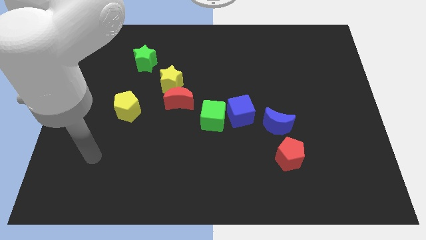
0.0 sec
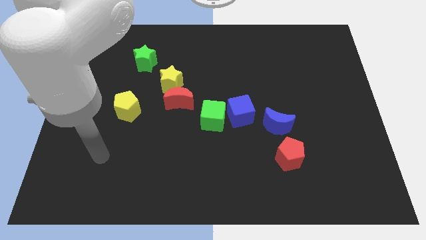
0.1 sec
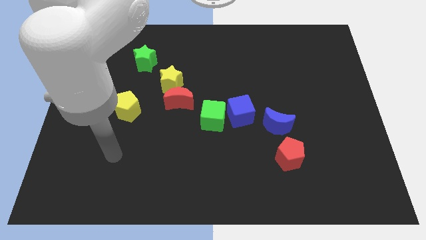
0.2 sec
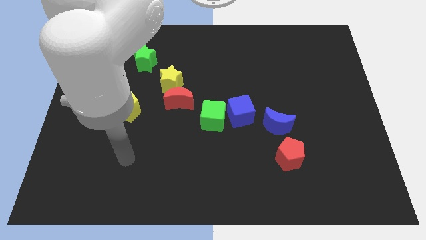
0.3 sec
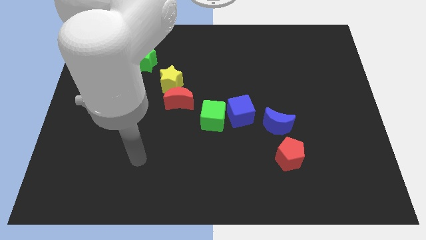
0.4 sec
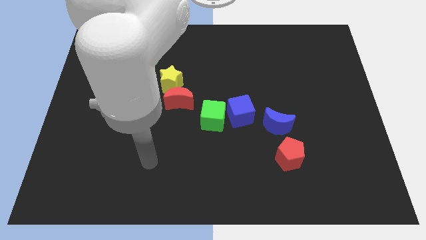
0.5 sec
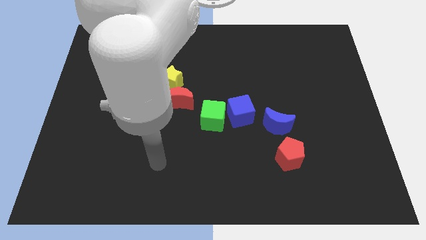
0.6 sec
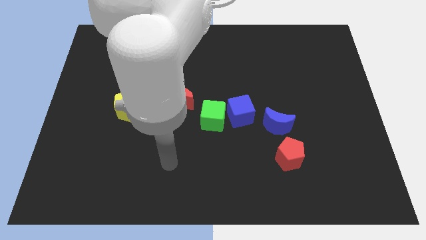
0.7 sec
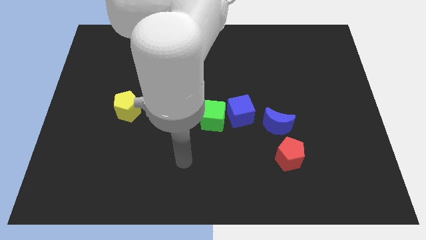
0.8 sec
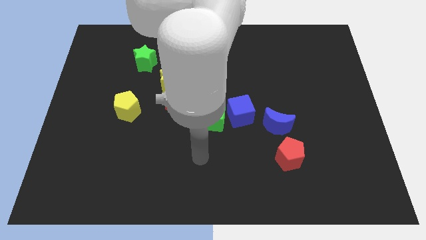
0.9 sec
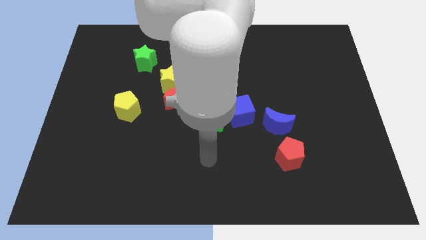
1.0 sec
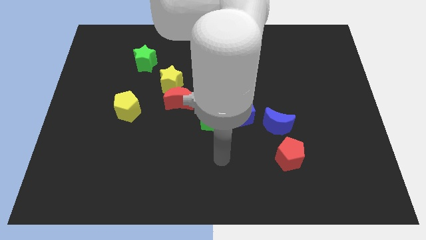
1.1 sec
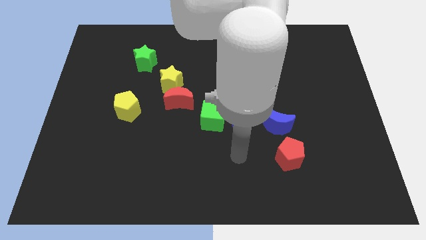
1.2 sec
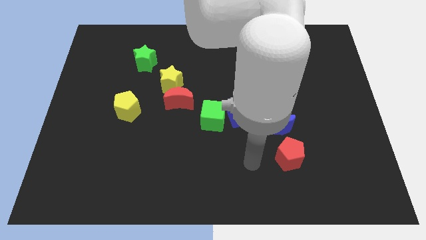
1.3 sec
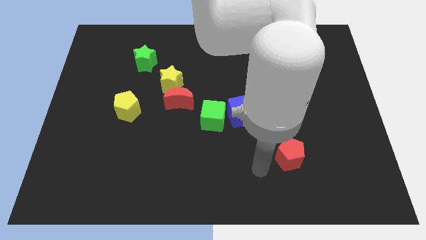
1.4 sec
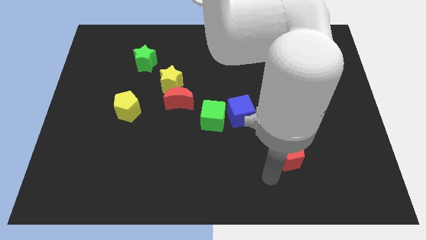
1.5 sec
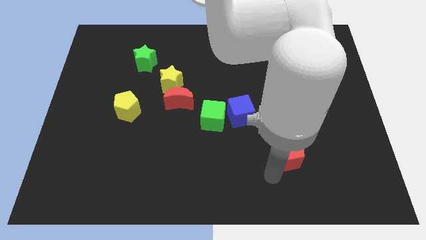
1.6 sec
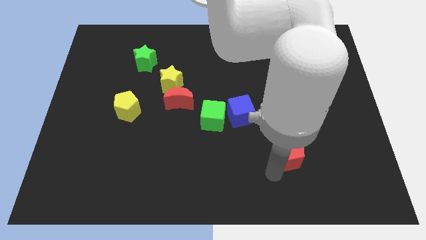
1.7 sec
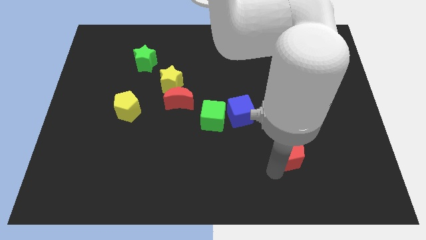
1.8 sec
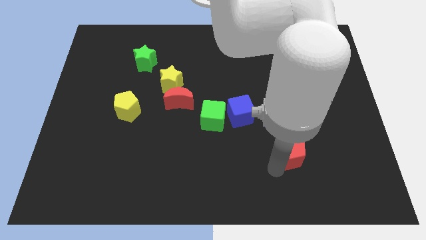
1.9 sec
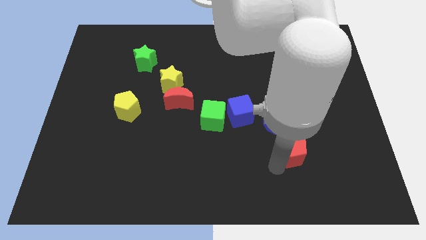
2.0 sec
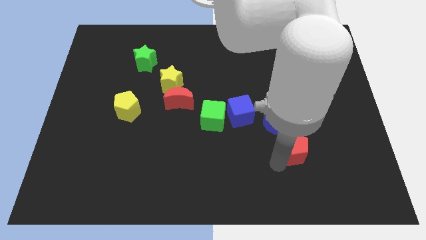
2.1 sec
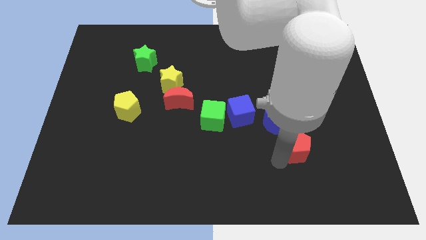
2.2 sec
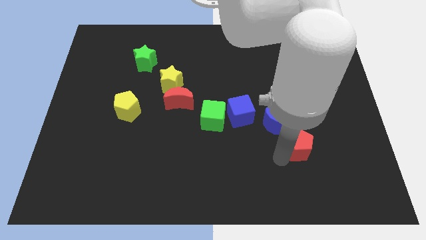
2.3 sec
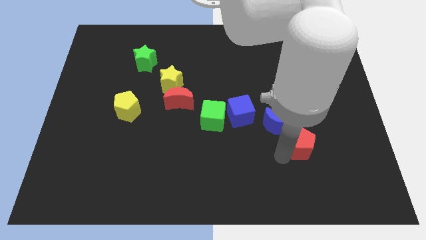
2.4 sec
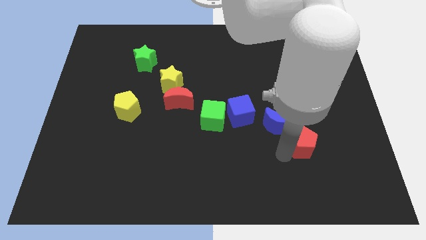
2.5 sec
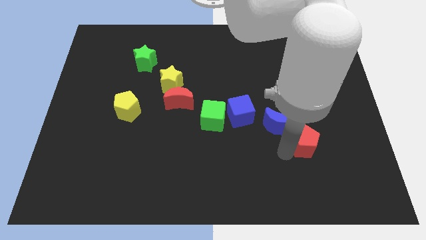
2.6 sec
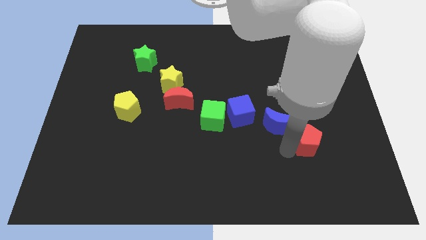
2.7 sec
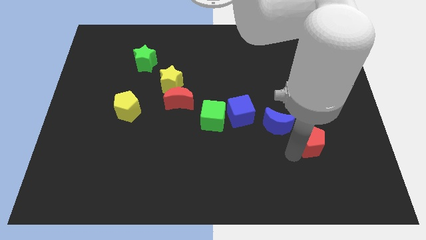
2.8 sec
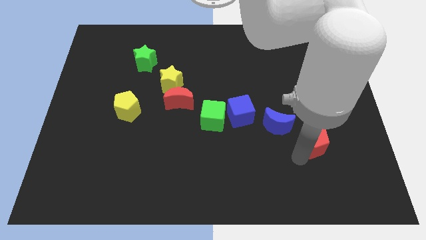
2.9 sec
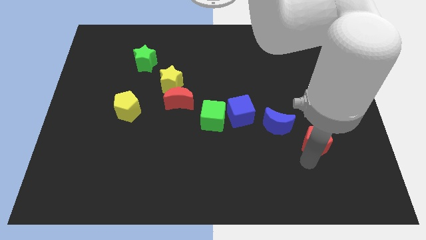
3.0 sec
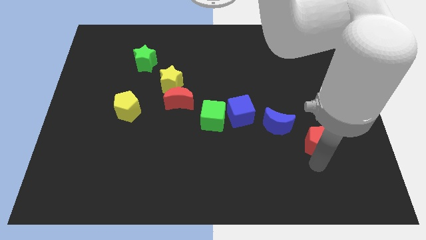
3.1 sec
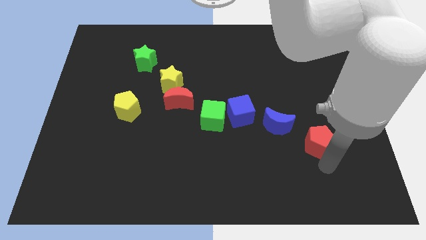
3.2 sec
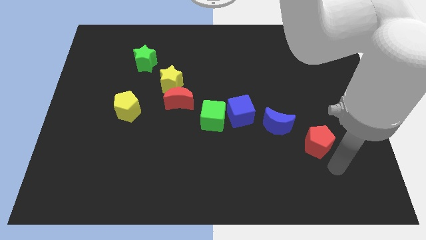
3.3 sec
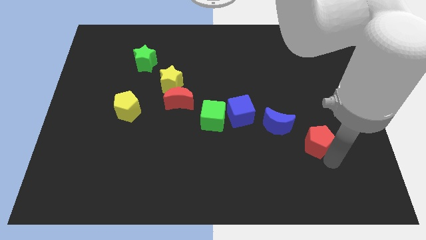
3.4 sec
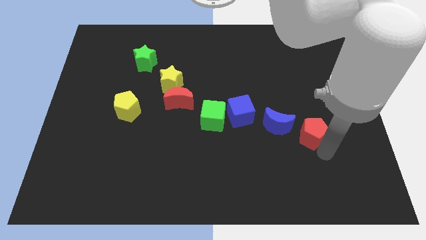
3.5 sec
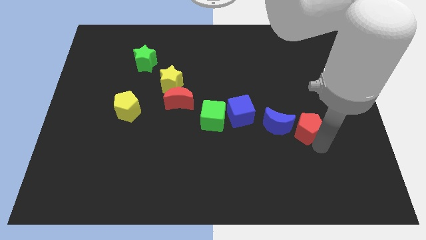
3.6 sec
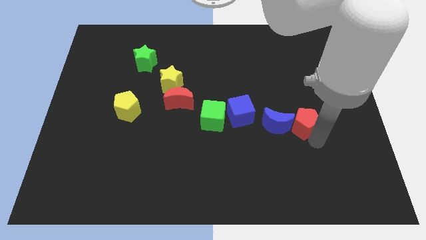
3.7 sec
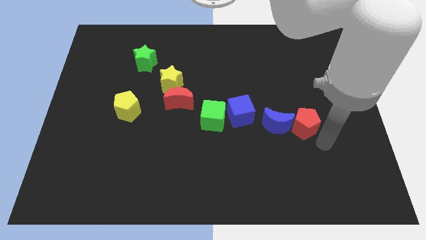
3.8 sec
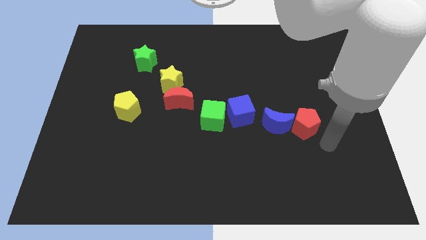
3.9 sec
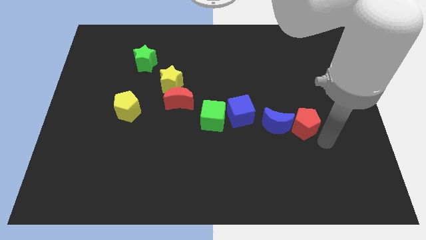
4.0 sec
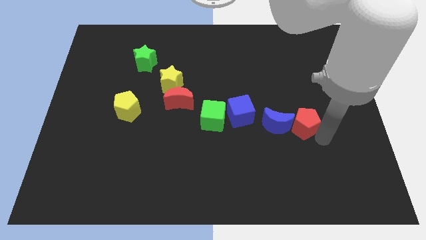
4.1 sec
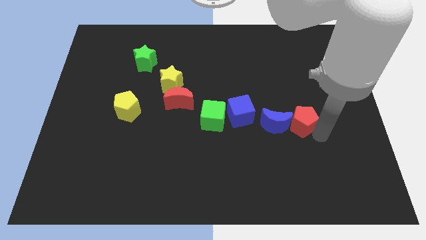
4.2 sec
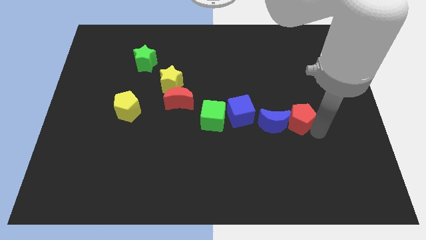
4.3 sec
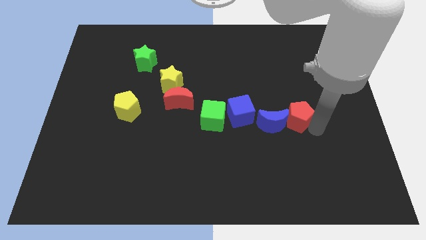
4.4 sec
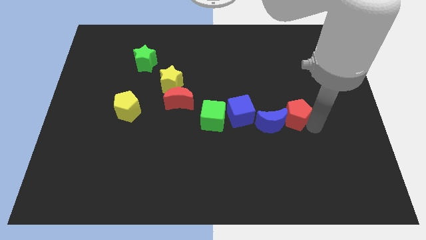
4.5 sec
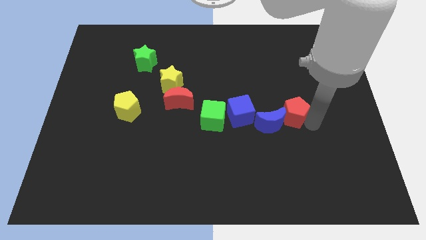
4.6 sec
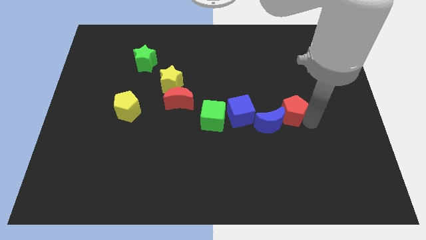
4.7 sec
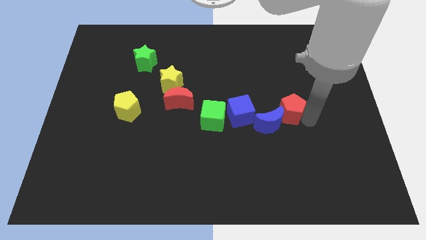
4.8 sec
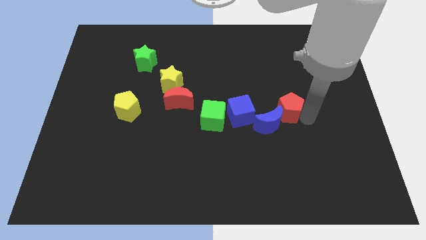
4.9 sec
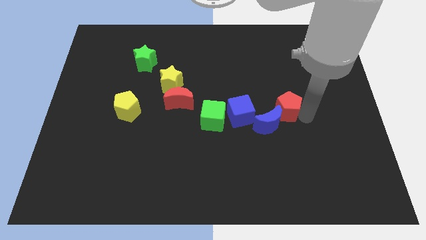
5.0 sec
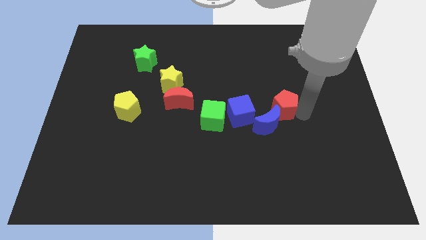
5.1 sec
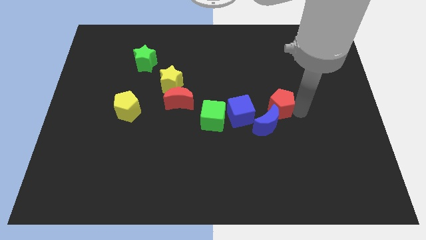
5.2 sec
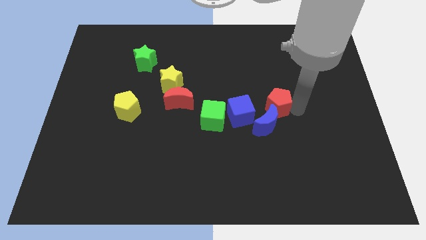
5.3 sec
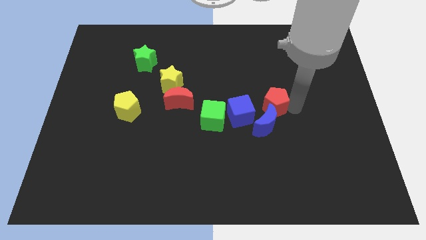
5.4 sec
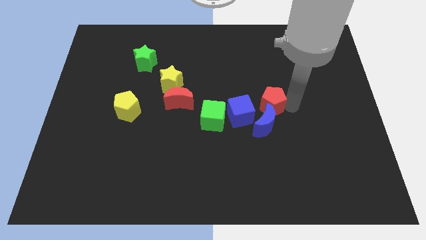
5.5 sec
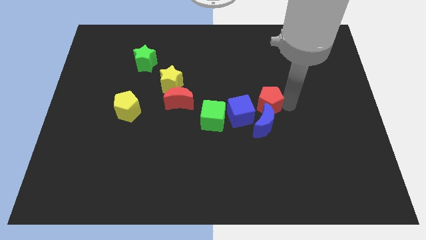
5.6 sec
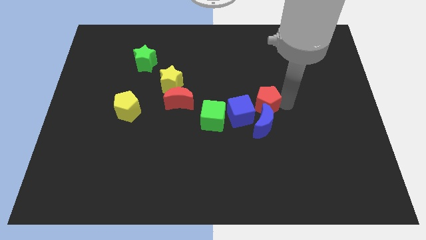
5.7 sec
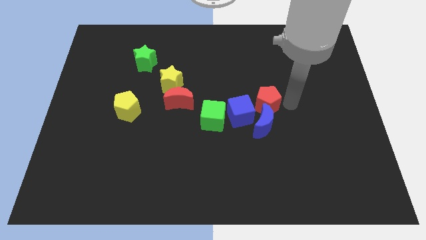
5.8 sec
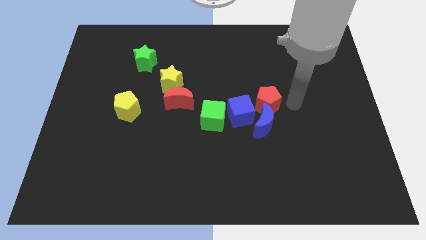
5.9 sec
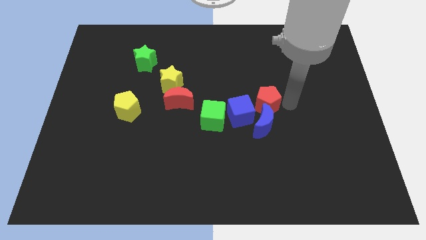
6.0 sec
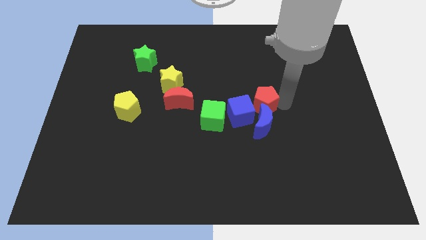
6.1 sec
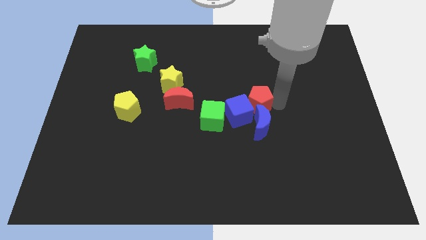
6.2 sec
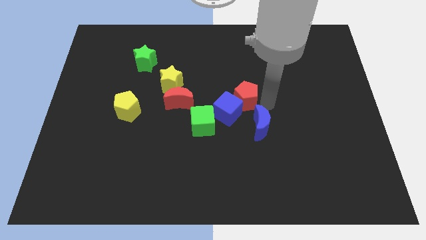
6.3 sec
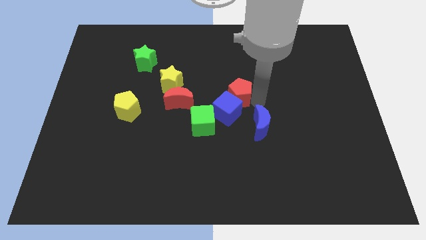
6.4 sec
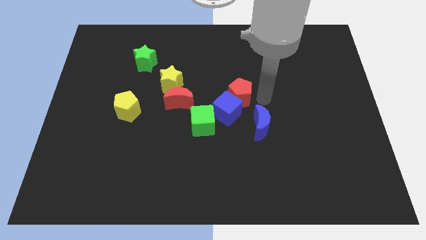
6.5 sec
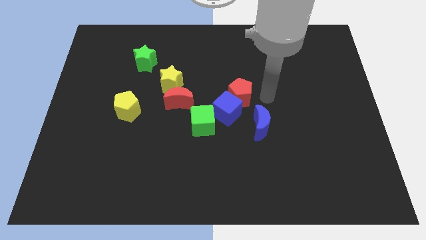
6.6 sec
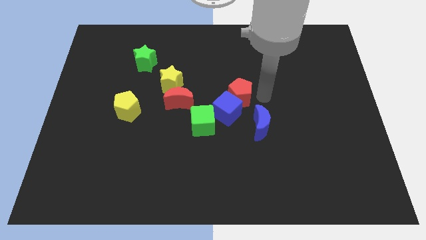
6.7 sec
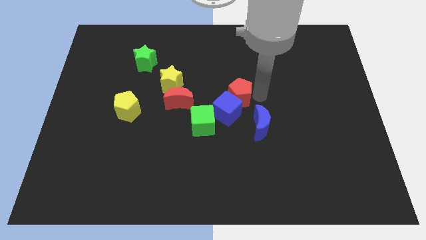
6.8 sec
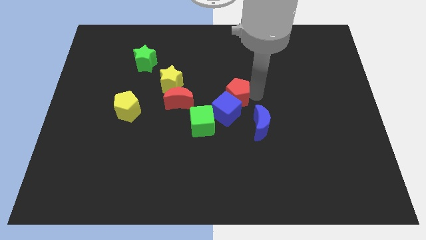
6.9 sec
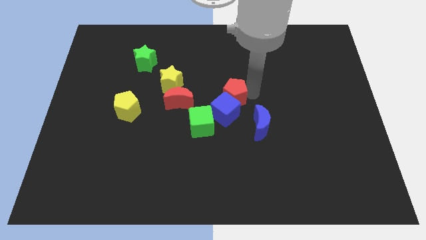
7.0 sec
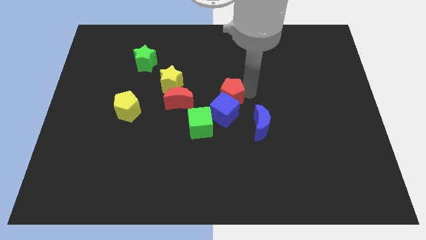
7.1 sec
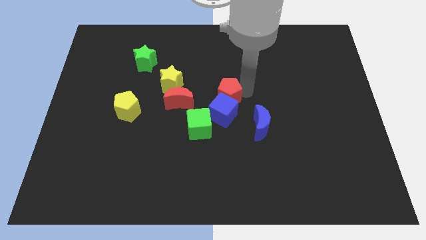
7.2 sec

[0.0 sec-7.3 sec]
push the red pentagon to the top left side of the blue cube
